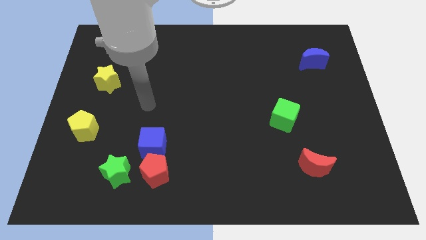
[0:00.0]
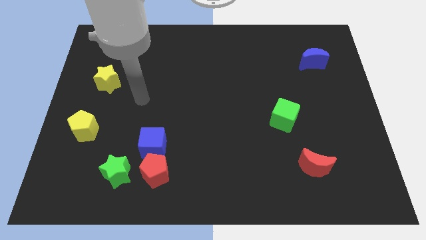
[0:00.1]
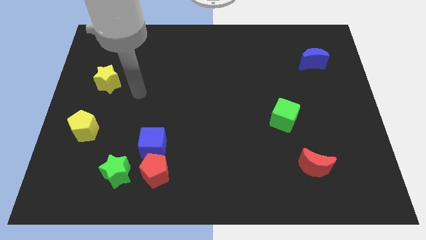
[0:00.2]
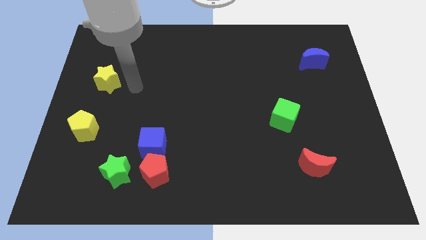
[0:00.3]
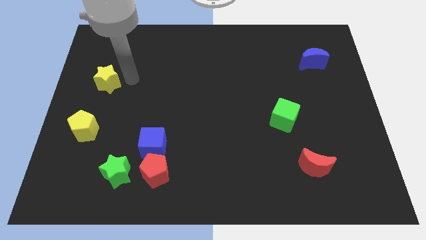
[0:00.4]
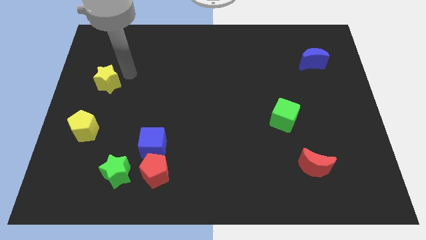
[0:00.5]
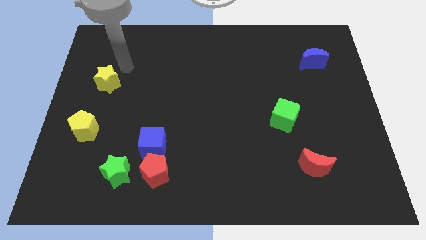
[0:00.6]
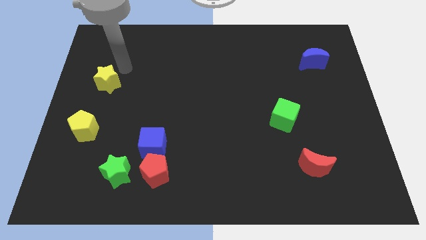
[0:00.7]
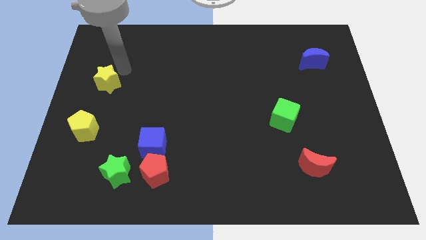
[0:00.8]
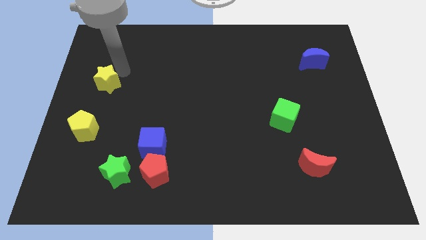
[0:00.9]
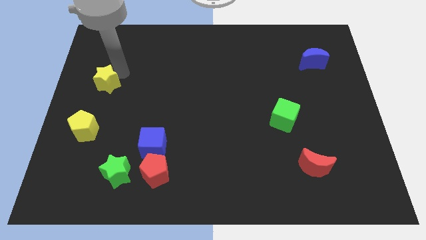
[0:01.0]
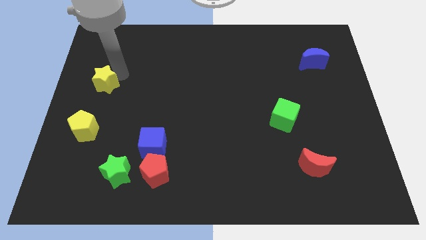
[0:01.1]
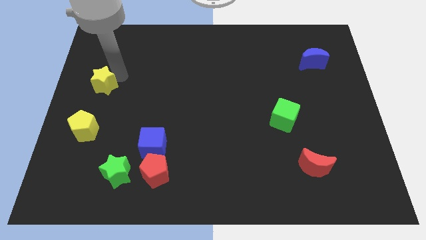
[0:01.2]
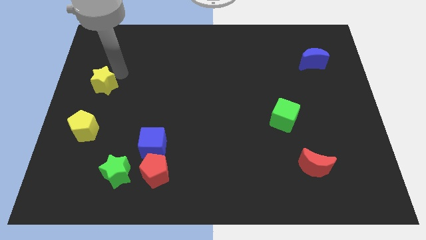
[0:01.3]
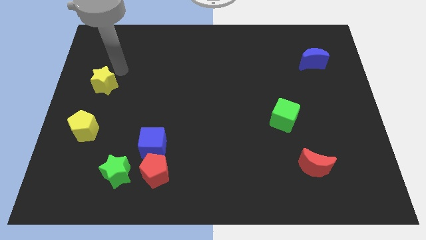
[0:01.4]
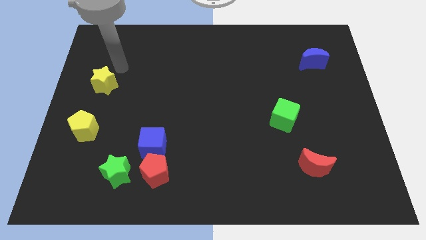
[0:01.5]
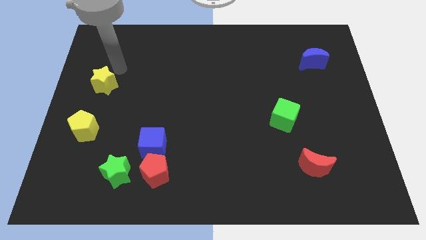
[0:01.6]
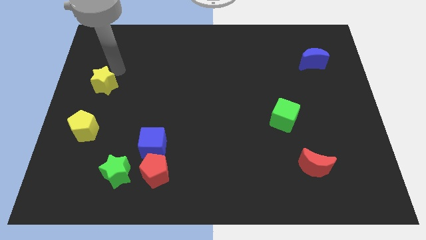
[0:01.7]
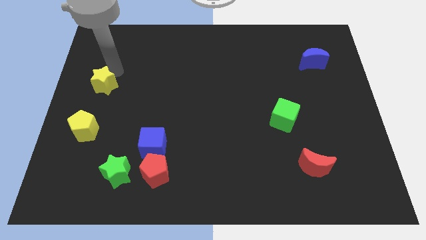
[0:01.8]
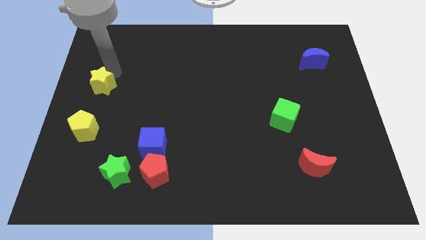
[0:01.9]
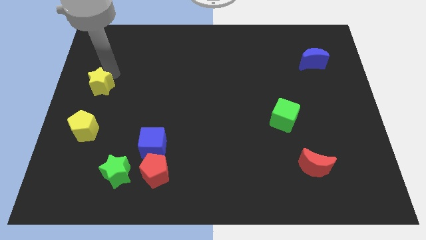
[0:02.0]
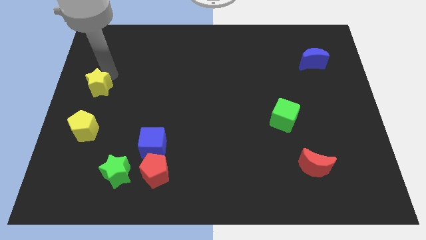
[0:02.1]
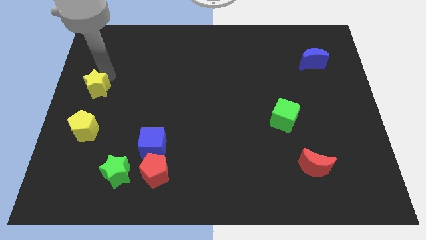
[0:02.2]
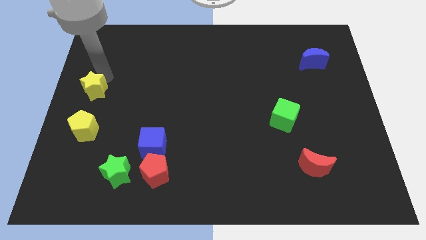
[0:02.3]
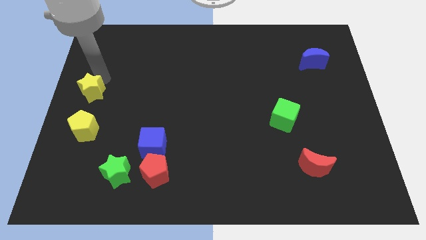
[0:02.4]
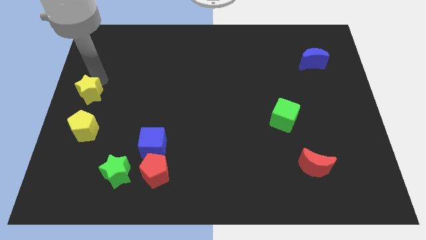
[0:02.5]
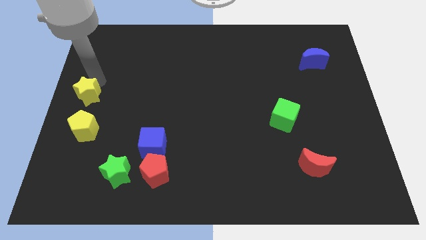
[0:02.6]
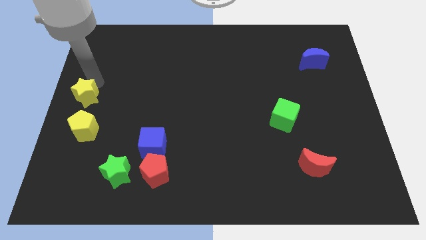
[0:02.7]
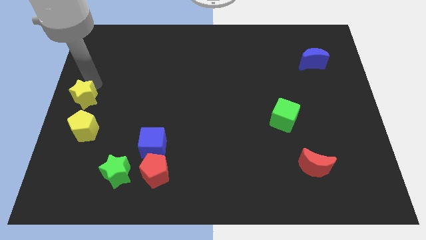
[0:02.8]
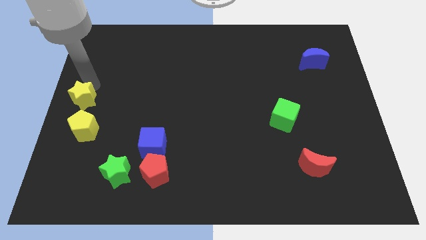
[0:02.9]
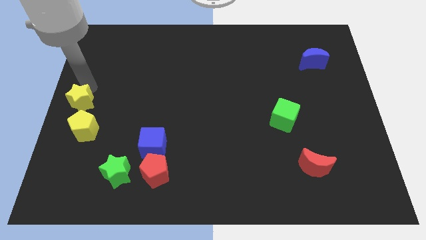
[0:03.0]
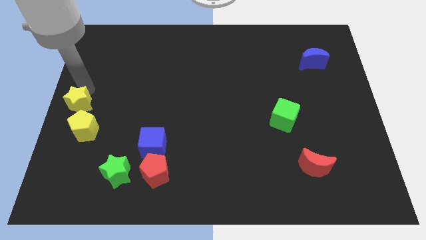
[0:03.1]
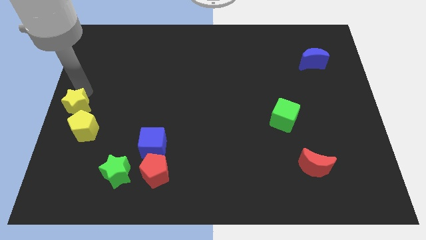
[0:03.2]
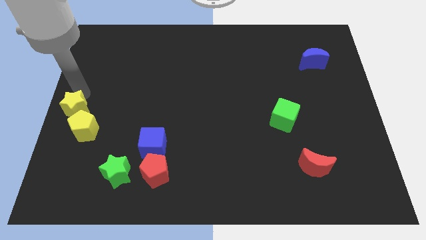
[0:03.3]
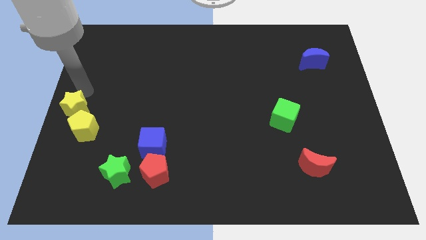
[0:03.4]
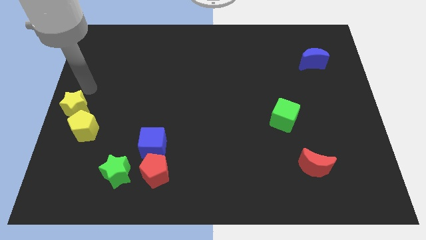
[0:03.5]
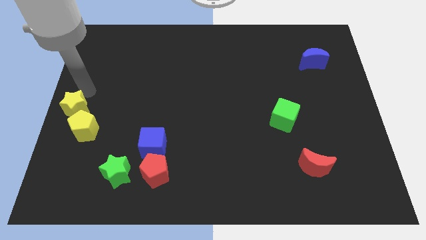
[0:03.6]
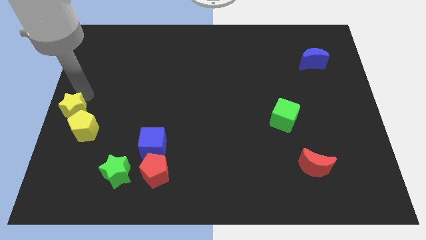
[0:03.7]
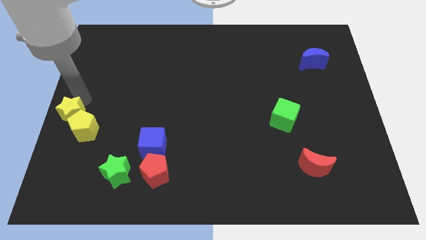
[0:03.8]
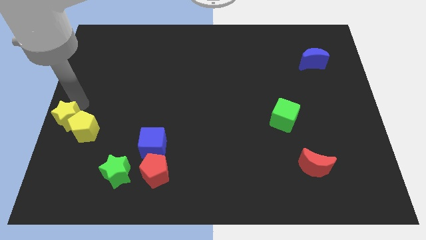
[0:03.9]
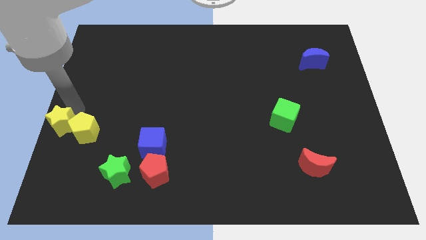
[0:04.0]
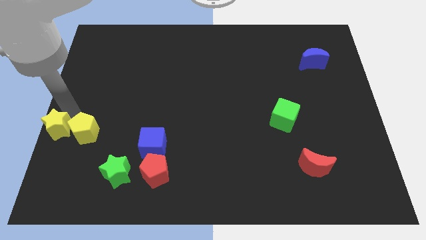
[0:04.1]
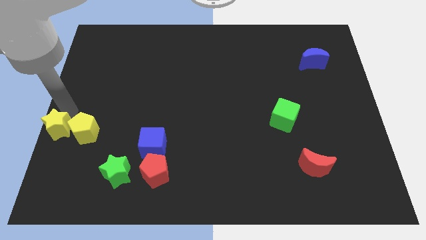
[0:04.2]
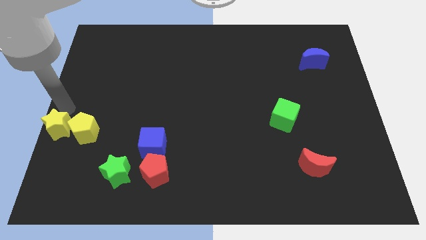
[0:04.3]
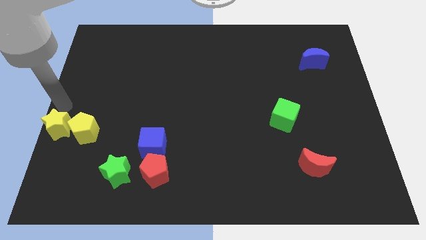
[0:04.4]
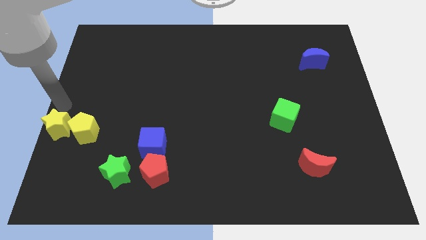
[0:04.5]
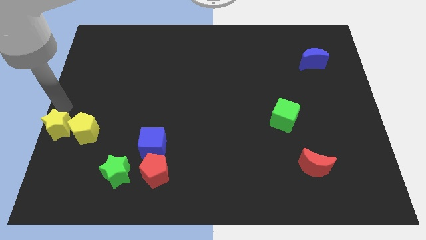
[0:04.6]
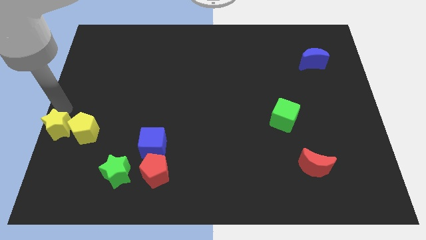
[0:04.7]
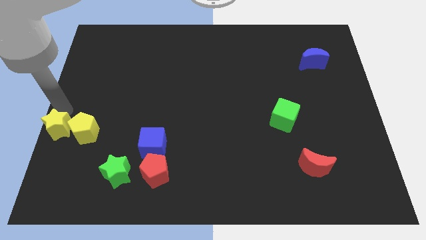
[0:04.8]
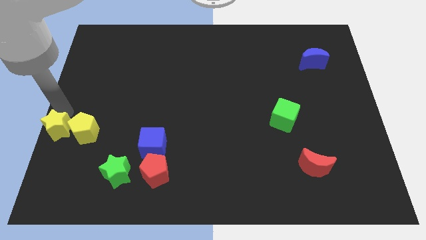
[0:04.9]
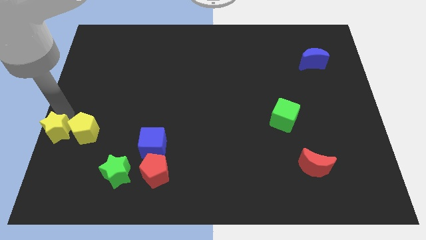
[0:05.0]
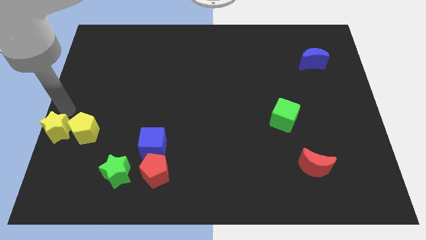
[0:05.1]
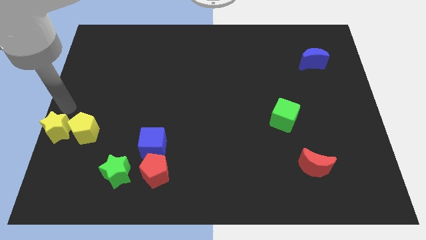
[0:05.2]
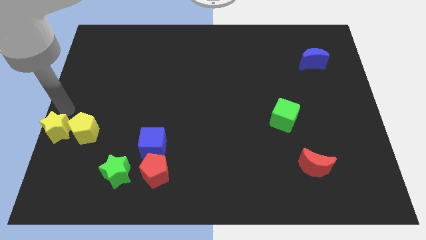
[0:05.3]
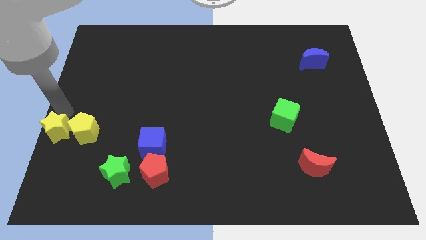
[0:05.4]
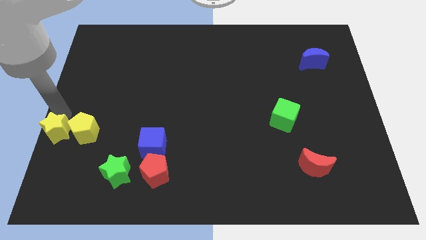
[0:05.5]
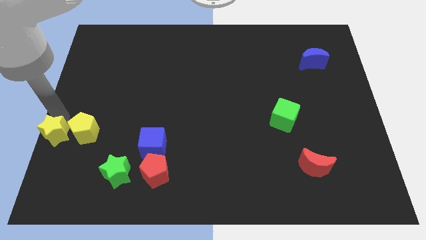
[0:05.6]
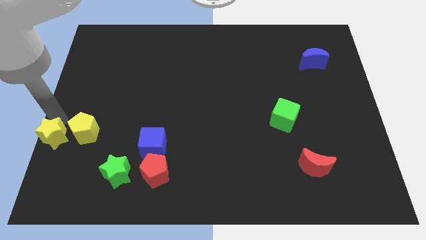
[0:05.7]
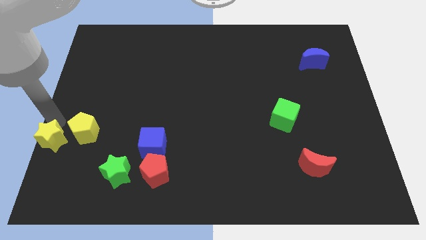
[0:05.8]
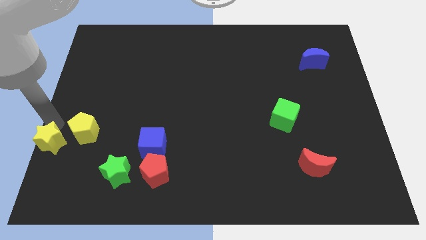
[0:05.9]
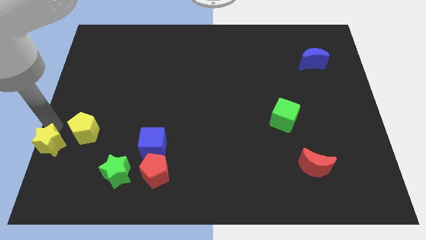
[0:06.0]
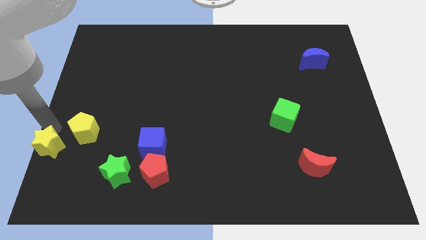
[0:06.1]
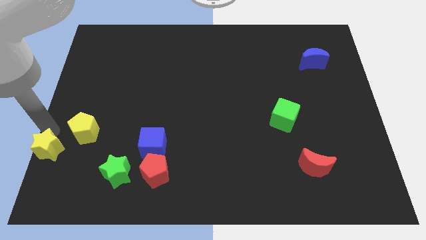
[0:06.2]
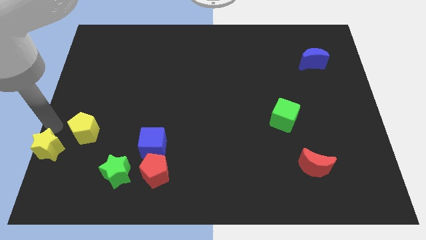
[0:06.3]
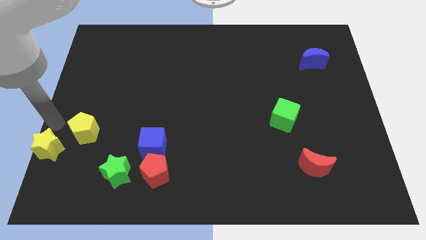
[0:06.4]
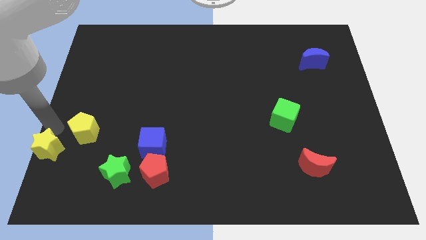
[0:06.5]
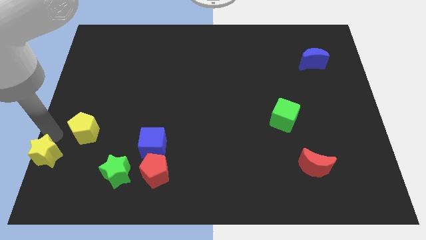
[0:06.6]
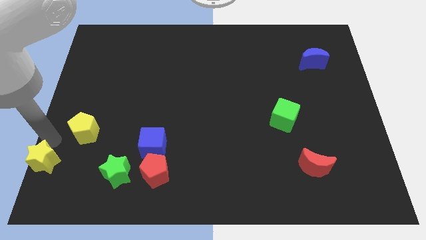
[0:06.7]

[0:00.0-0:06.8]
move the yellow star to the bottom left of the board

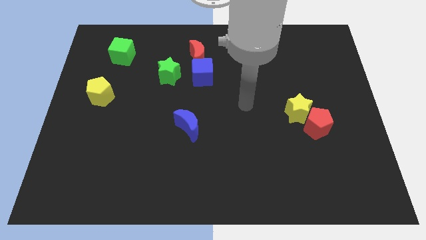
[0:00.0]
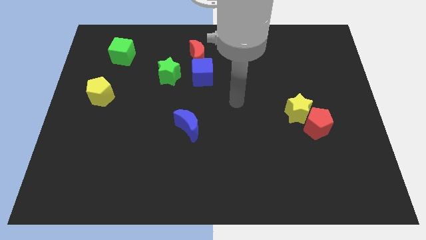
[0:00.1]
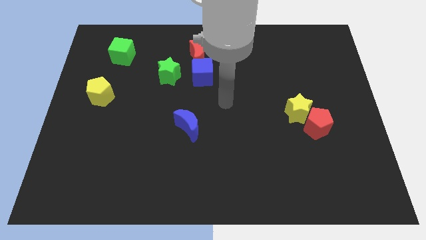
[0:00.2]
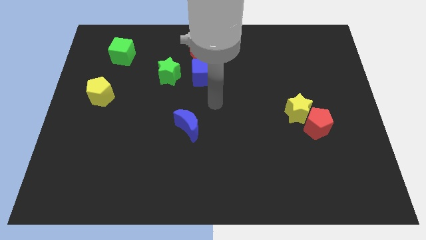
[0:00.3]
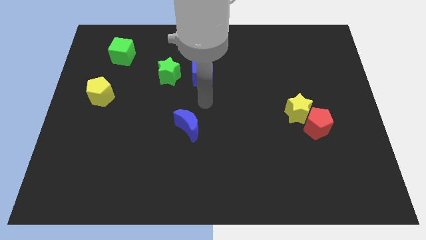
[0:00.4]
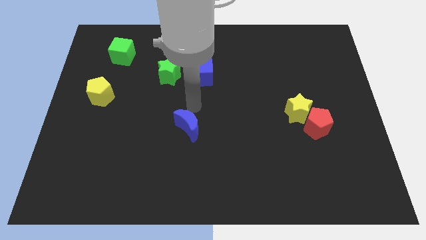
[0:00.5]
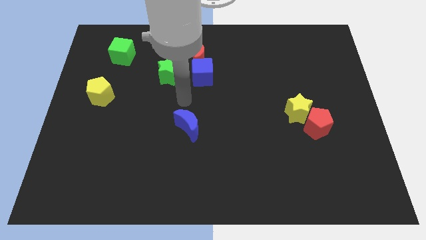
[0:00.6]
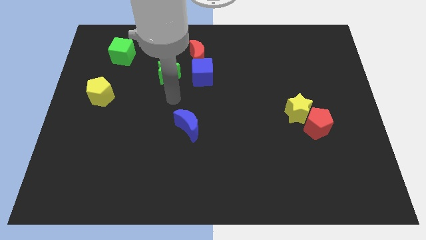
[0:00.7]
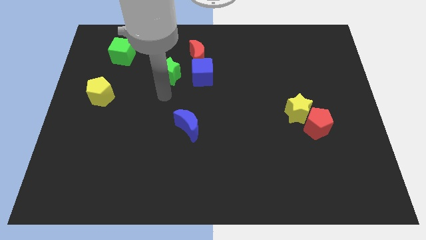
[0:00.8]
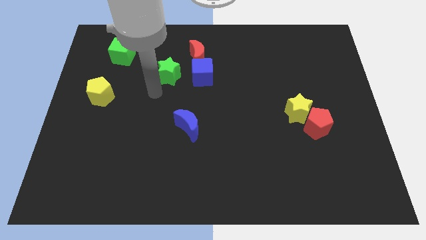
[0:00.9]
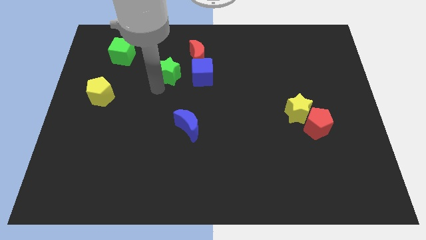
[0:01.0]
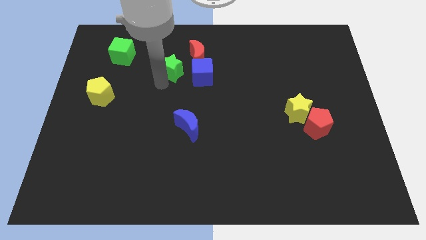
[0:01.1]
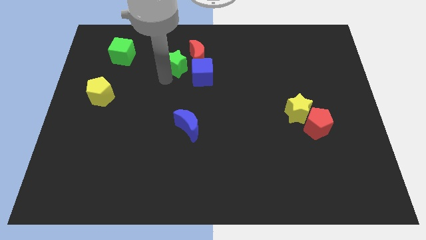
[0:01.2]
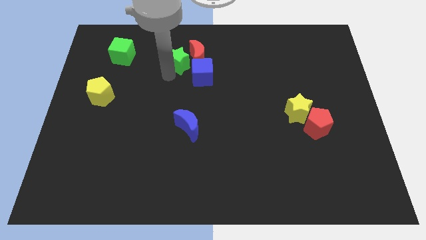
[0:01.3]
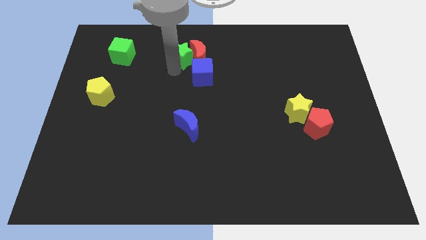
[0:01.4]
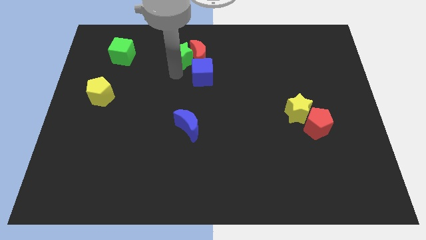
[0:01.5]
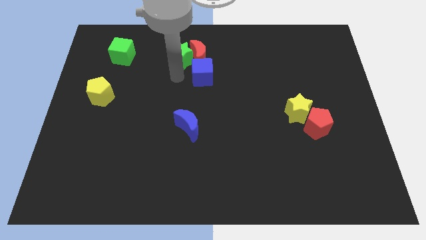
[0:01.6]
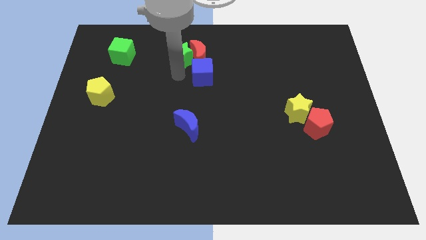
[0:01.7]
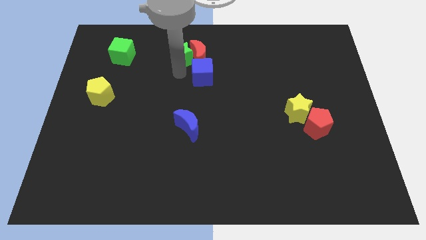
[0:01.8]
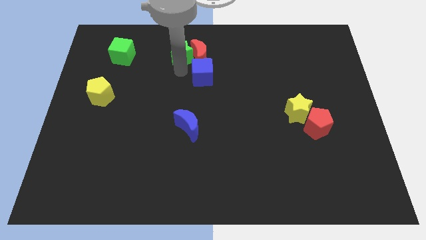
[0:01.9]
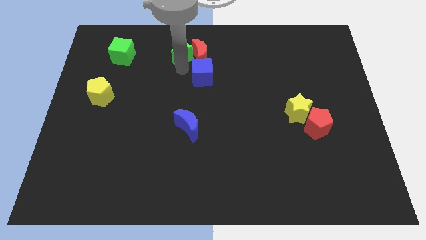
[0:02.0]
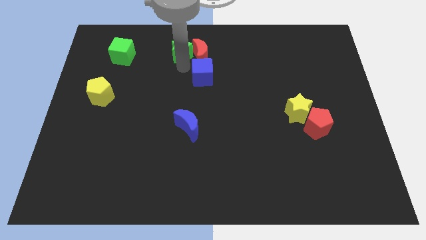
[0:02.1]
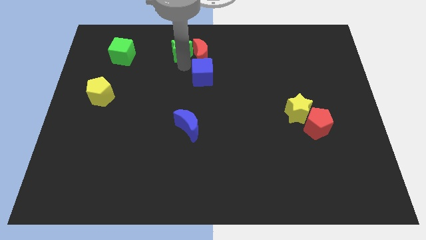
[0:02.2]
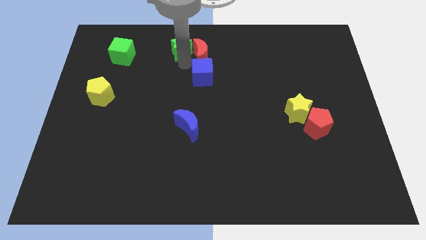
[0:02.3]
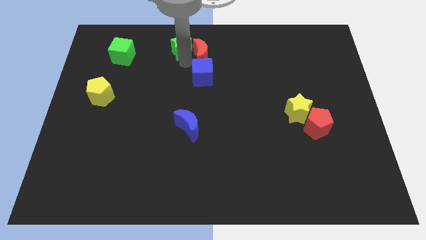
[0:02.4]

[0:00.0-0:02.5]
move the green star to the towards your base
